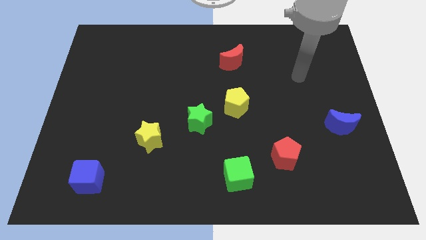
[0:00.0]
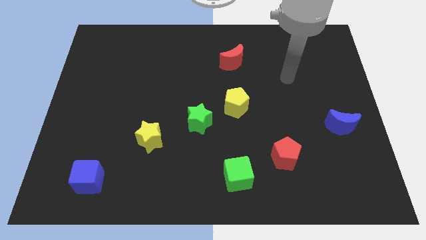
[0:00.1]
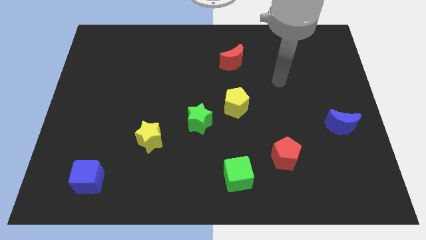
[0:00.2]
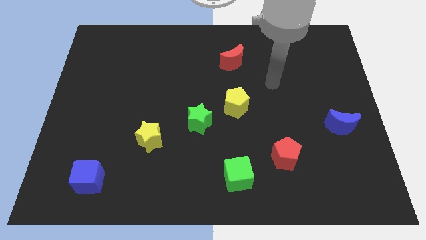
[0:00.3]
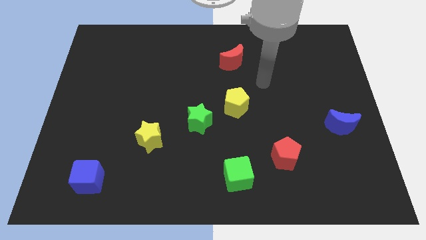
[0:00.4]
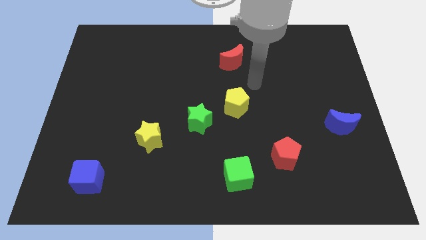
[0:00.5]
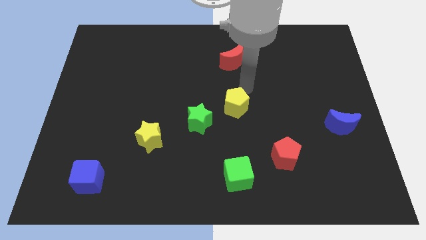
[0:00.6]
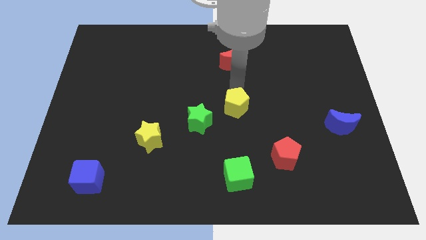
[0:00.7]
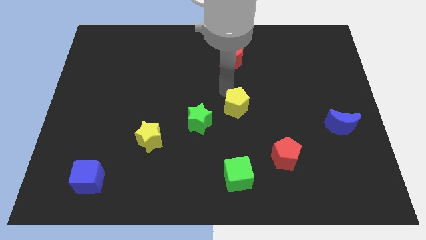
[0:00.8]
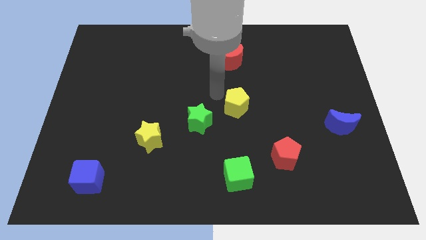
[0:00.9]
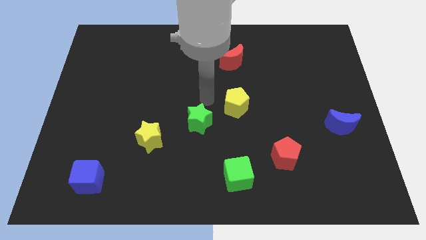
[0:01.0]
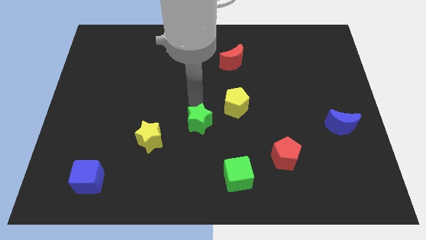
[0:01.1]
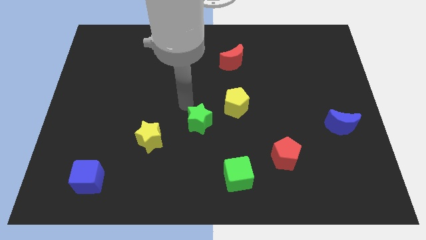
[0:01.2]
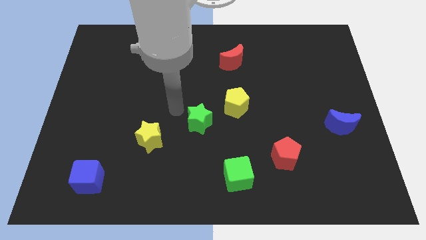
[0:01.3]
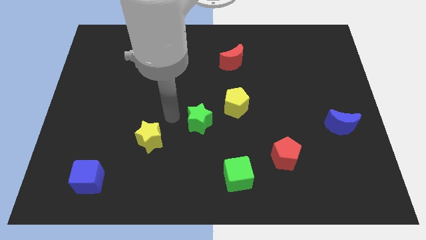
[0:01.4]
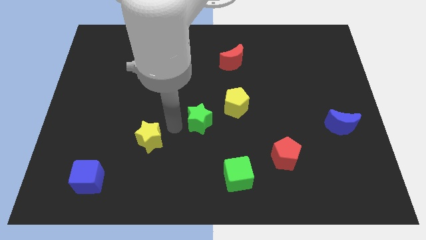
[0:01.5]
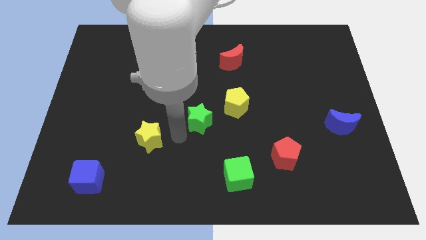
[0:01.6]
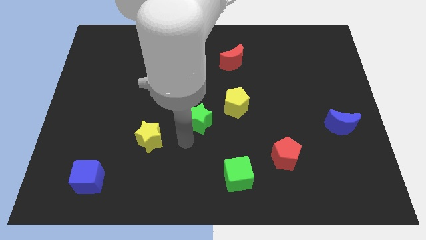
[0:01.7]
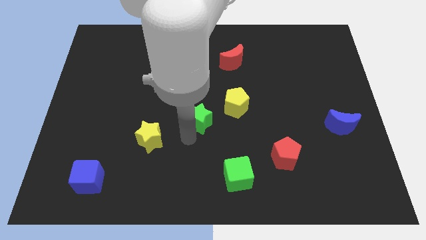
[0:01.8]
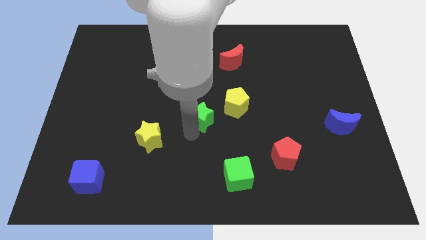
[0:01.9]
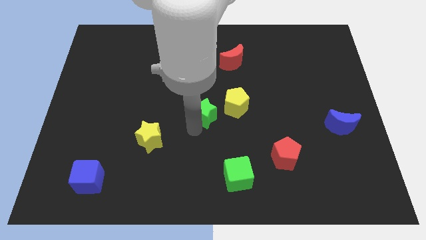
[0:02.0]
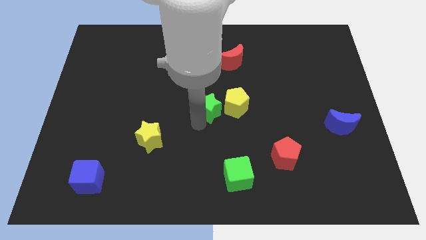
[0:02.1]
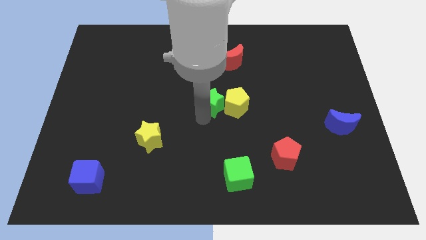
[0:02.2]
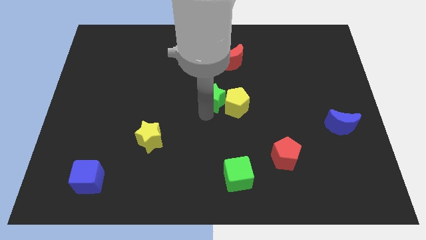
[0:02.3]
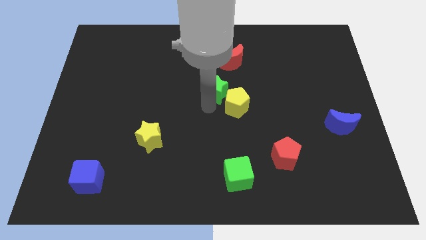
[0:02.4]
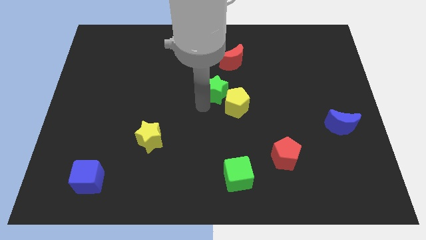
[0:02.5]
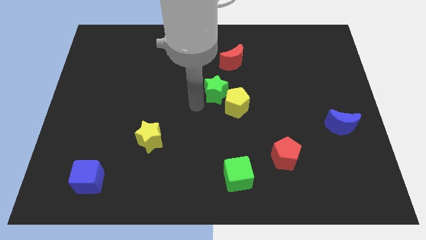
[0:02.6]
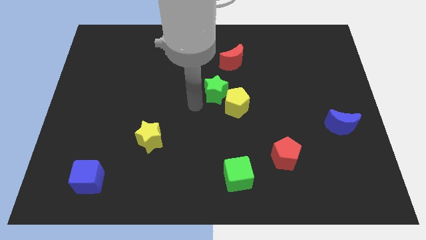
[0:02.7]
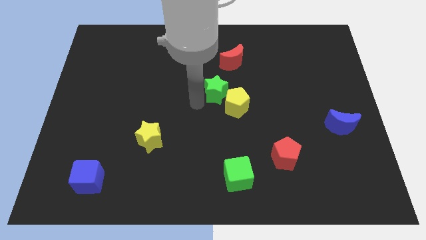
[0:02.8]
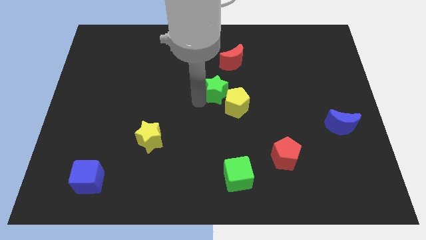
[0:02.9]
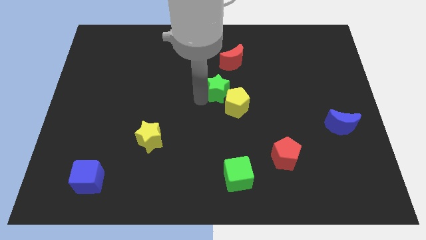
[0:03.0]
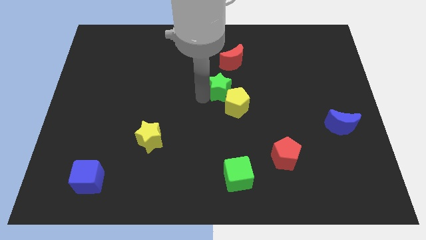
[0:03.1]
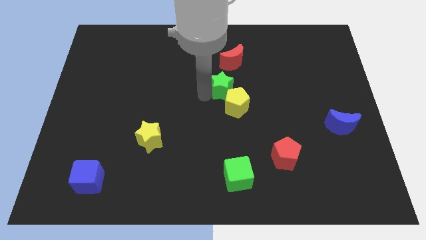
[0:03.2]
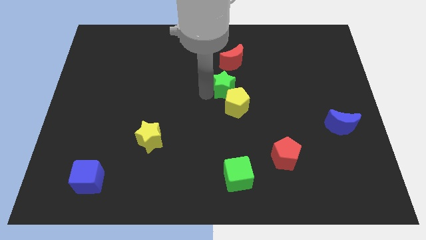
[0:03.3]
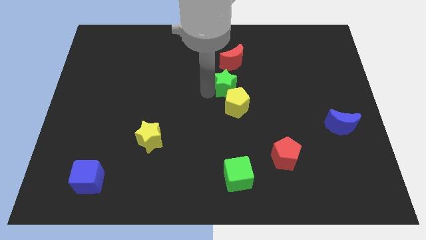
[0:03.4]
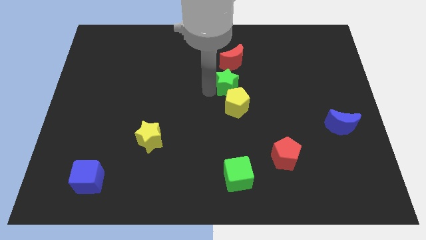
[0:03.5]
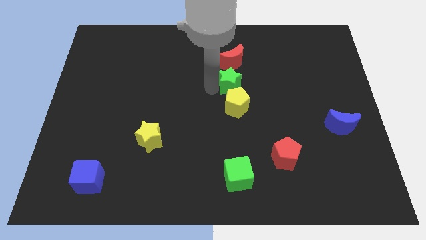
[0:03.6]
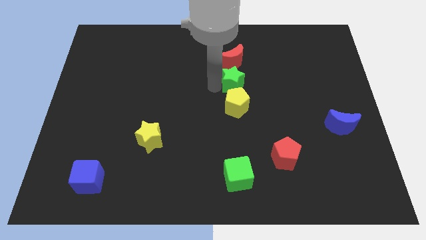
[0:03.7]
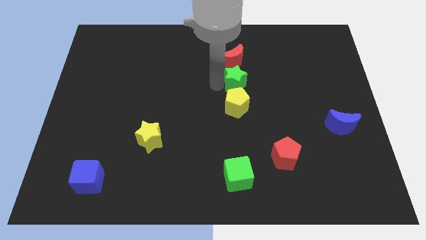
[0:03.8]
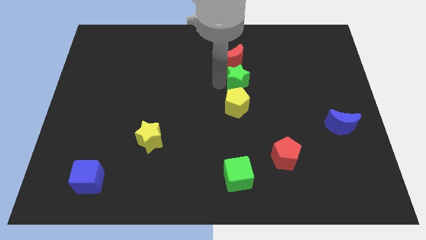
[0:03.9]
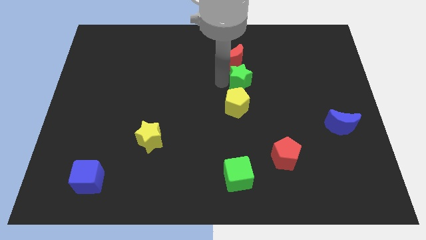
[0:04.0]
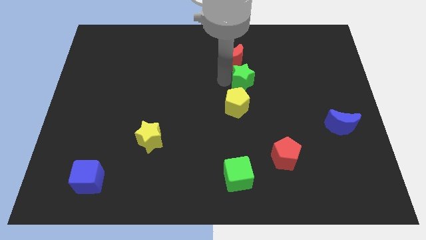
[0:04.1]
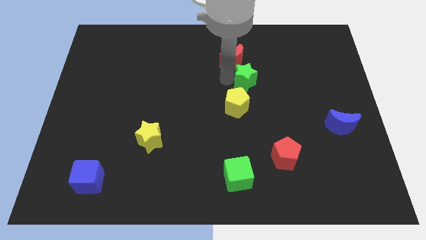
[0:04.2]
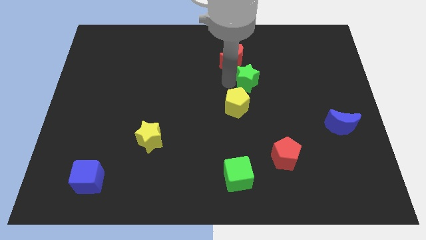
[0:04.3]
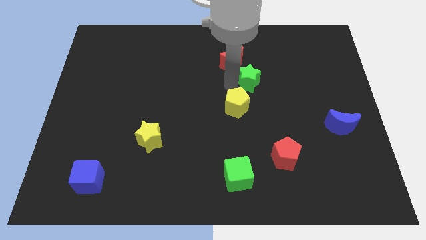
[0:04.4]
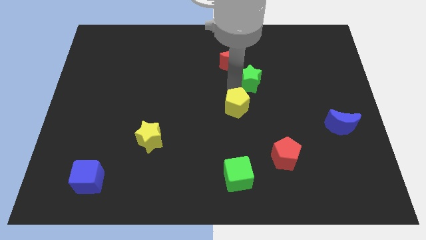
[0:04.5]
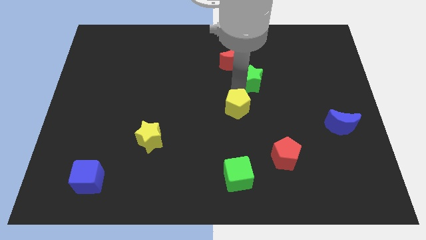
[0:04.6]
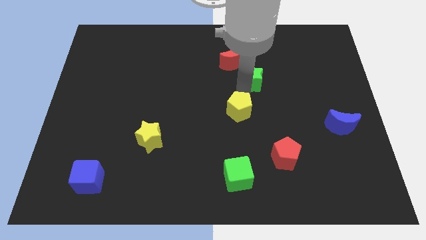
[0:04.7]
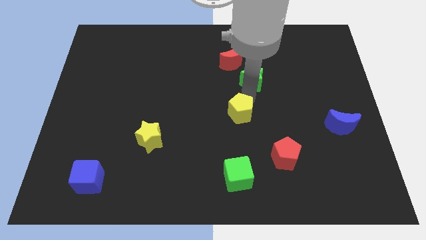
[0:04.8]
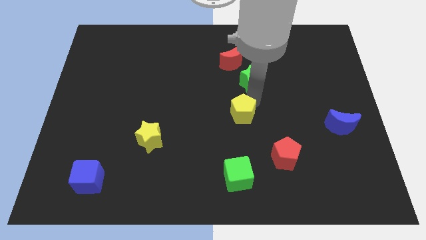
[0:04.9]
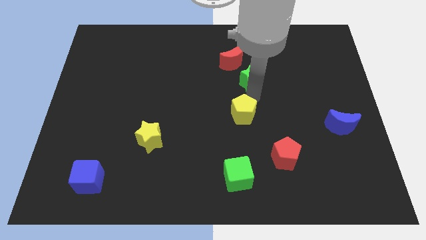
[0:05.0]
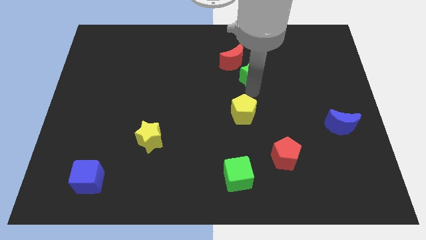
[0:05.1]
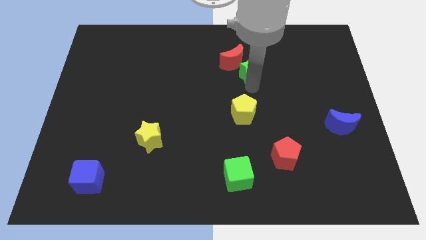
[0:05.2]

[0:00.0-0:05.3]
move the green star to the right side of the red moon

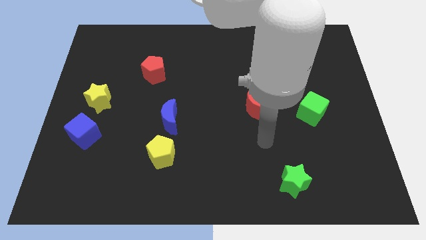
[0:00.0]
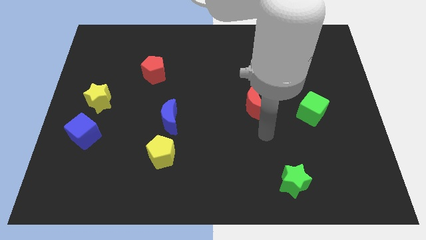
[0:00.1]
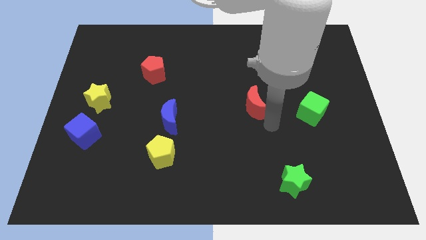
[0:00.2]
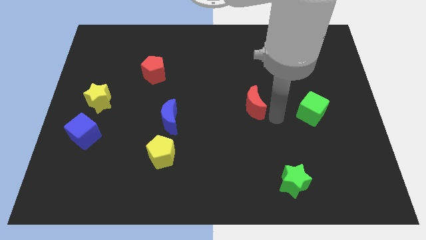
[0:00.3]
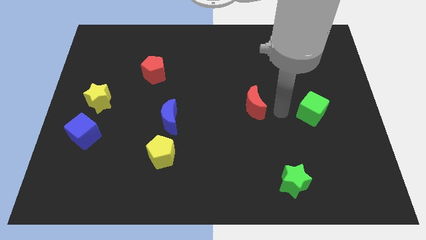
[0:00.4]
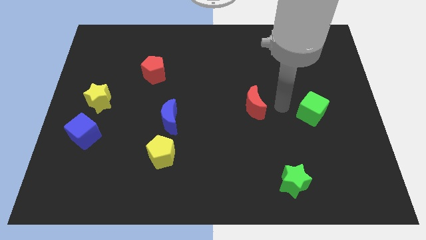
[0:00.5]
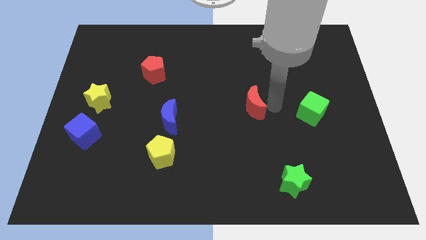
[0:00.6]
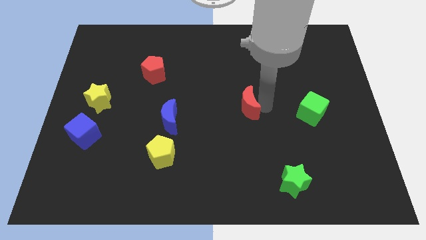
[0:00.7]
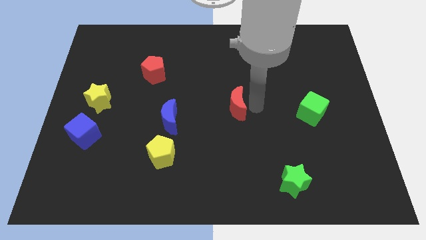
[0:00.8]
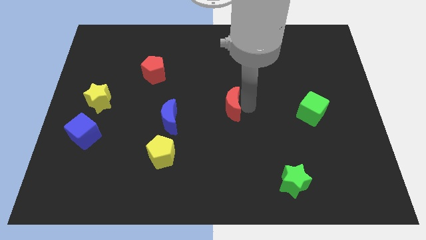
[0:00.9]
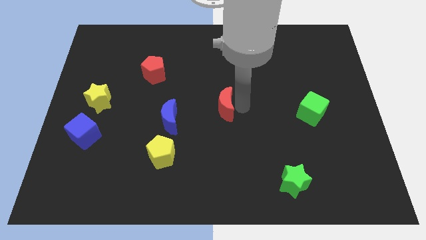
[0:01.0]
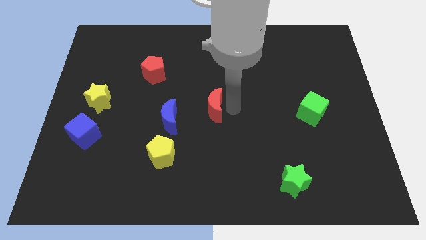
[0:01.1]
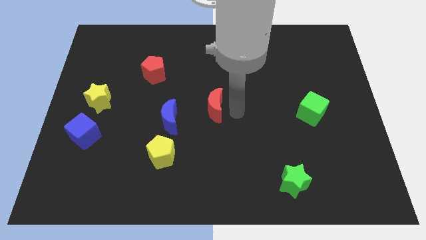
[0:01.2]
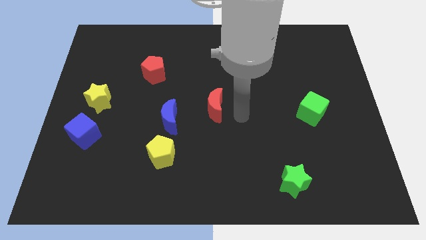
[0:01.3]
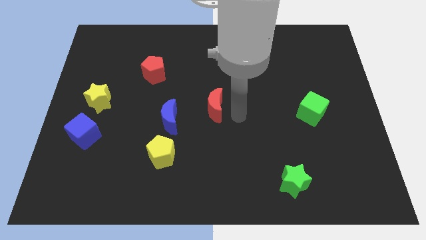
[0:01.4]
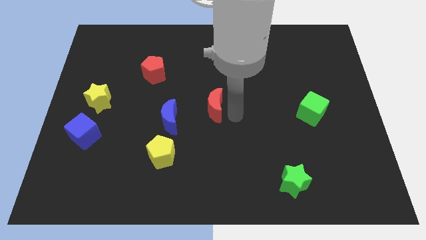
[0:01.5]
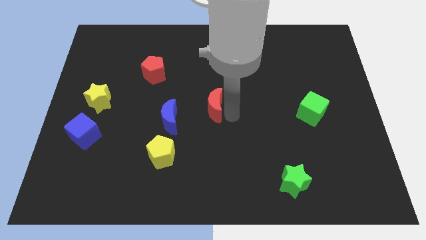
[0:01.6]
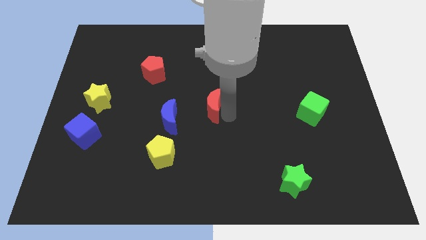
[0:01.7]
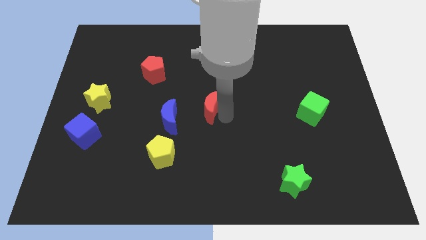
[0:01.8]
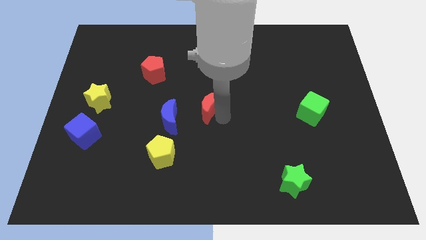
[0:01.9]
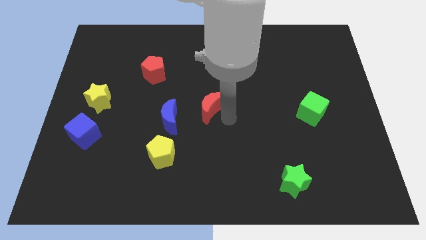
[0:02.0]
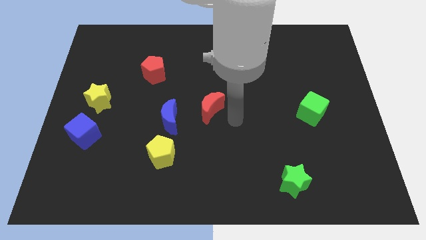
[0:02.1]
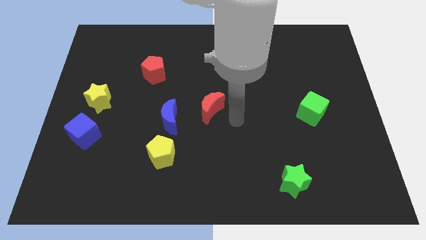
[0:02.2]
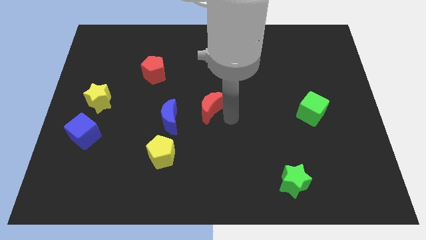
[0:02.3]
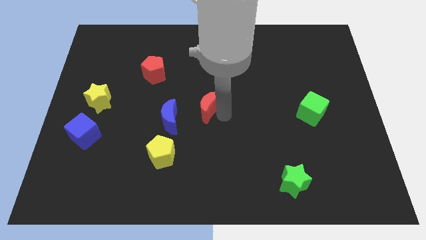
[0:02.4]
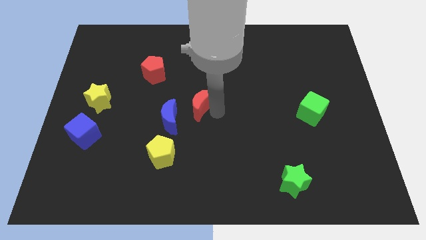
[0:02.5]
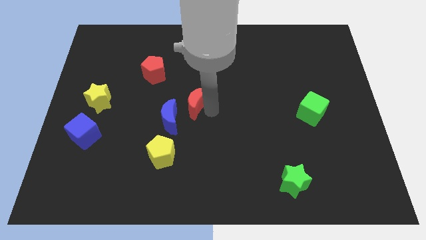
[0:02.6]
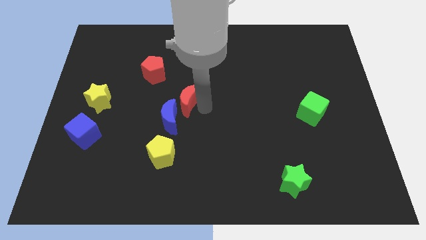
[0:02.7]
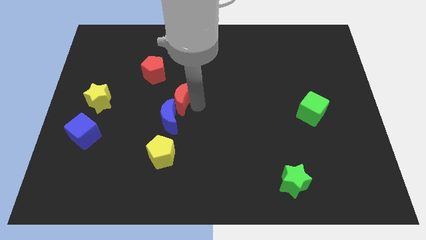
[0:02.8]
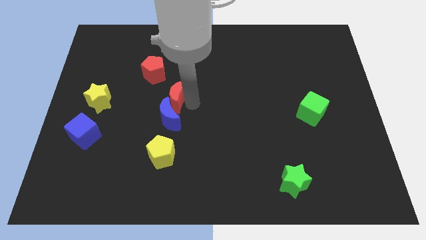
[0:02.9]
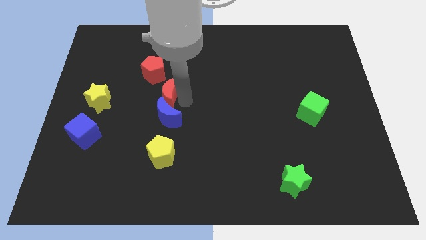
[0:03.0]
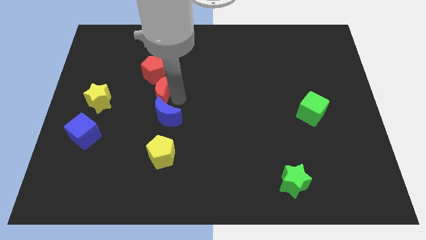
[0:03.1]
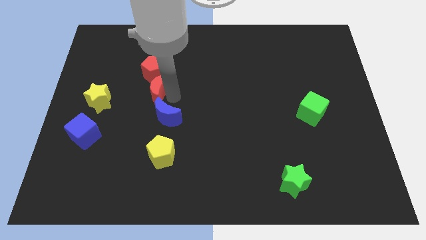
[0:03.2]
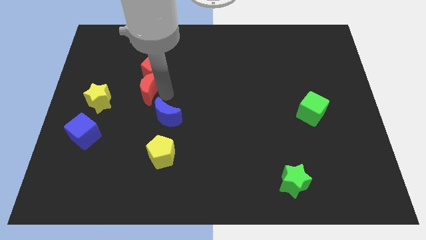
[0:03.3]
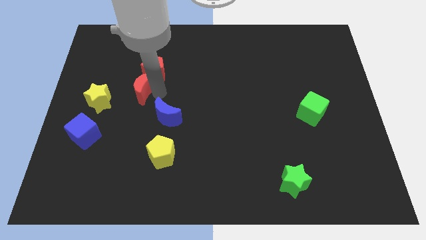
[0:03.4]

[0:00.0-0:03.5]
push the red moon to the top right of the yellow star
